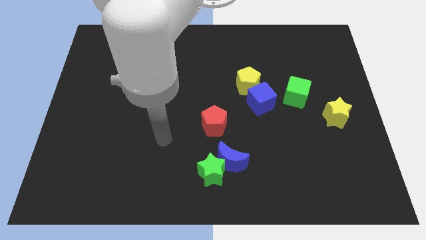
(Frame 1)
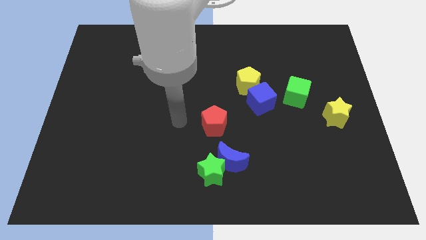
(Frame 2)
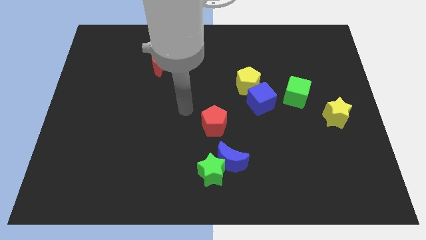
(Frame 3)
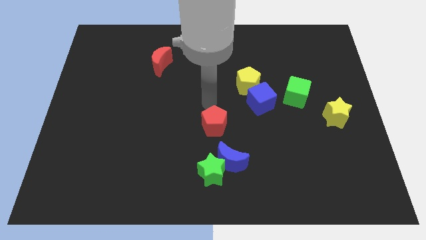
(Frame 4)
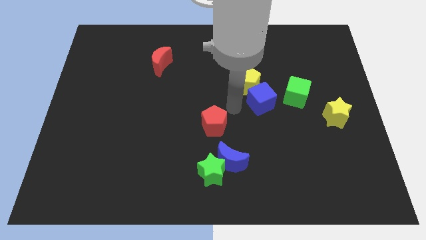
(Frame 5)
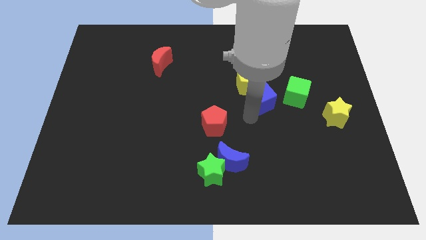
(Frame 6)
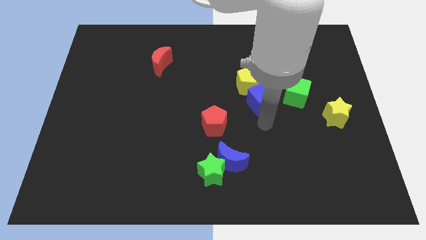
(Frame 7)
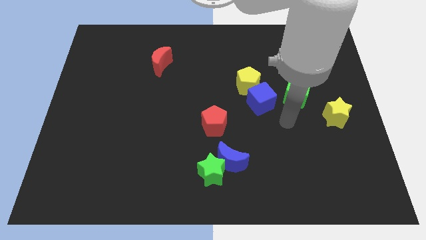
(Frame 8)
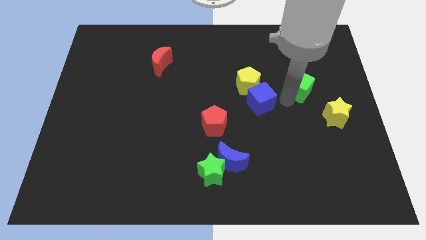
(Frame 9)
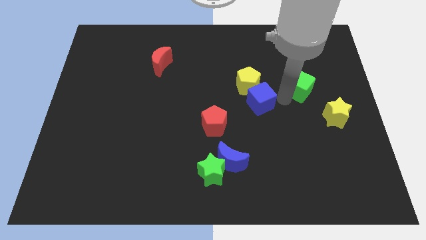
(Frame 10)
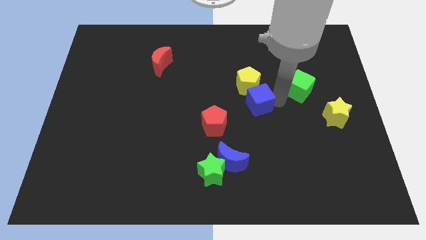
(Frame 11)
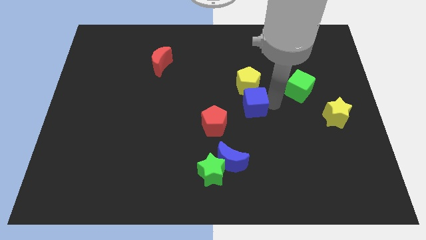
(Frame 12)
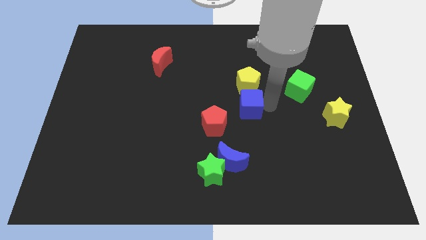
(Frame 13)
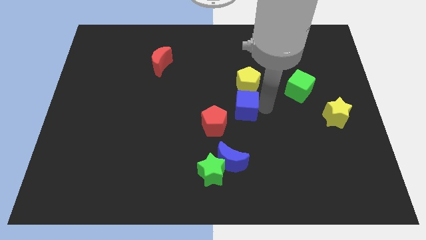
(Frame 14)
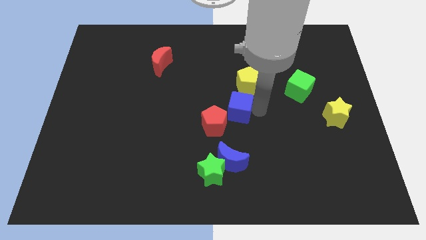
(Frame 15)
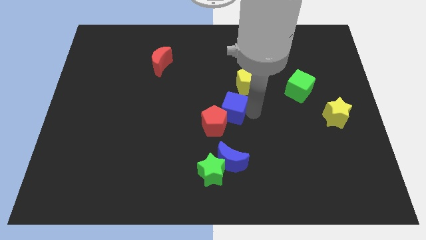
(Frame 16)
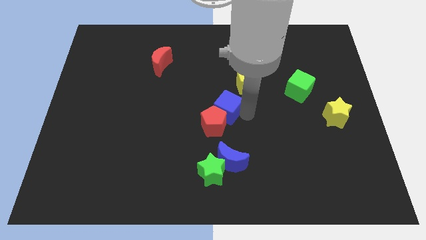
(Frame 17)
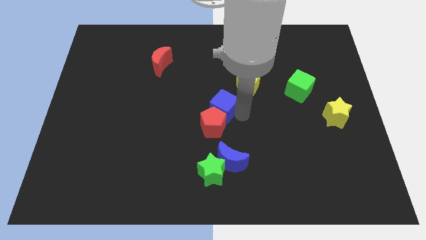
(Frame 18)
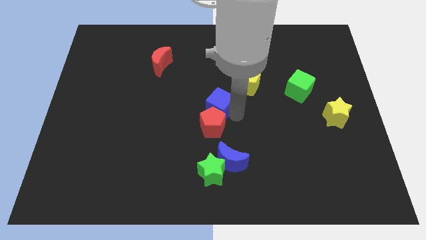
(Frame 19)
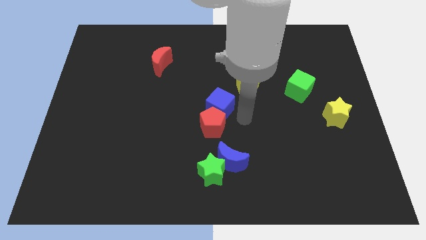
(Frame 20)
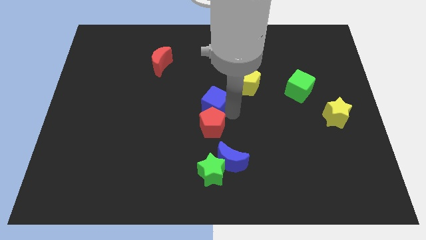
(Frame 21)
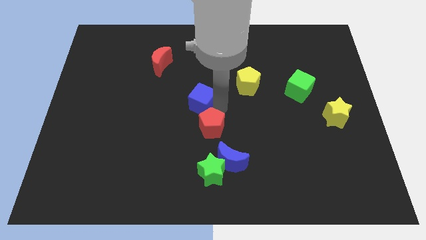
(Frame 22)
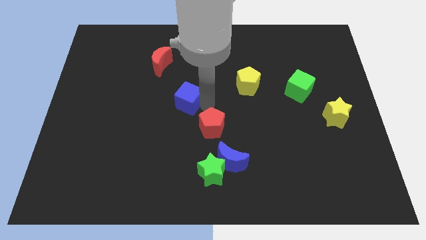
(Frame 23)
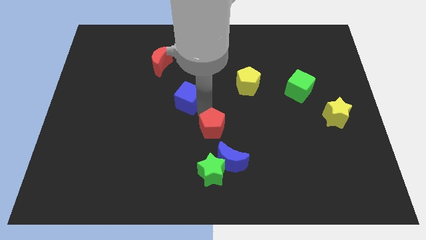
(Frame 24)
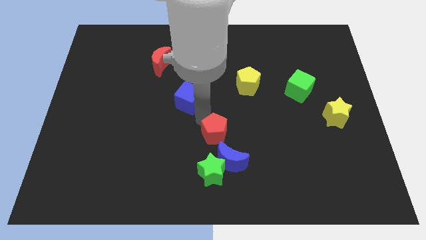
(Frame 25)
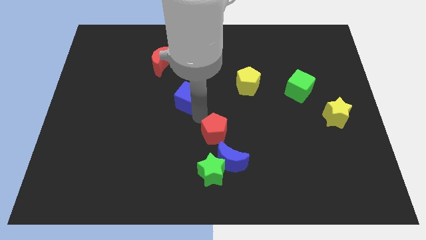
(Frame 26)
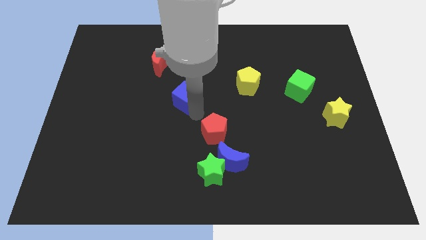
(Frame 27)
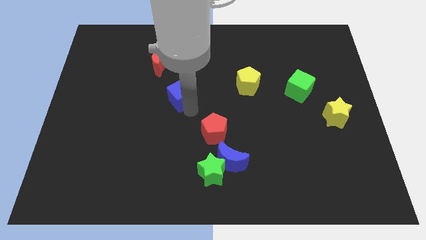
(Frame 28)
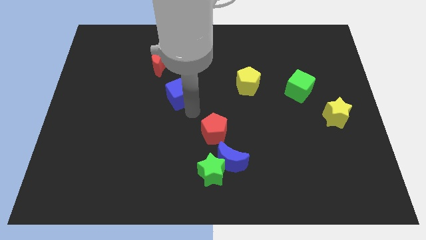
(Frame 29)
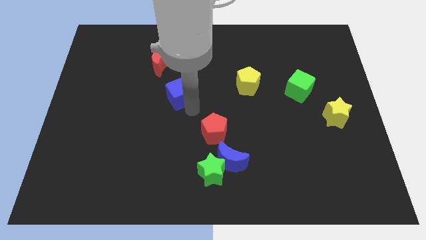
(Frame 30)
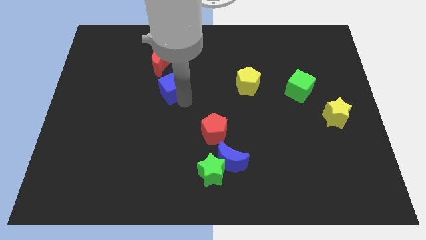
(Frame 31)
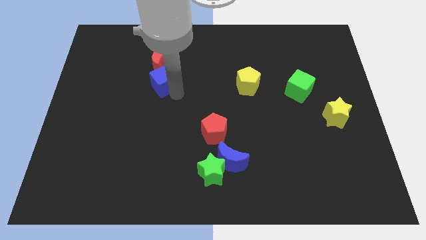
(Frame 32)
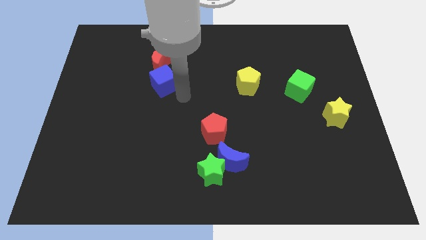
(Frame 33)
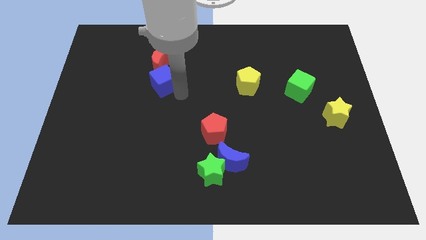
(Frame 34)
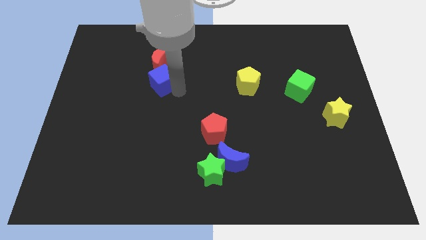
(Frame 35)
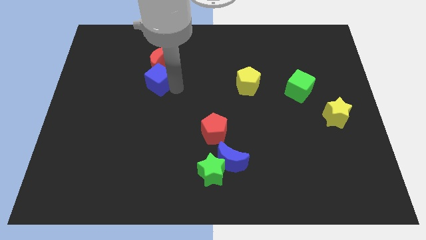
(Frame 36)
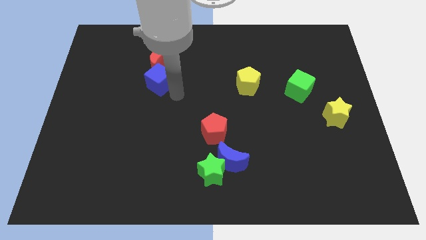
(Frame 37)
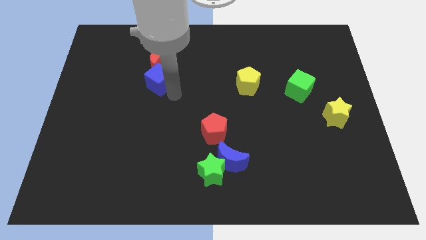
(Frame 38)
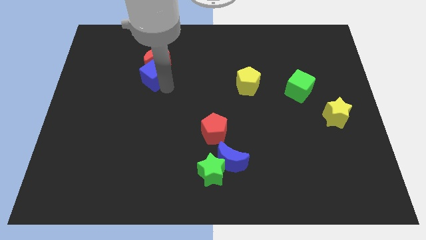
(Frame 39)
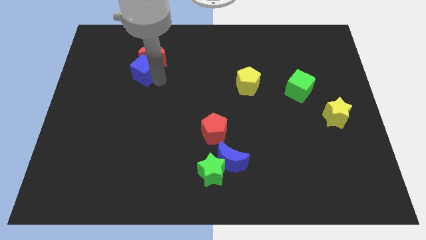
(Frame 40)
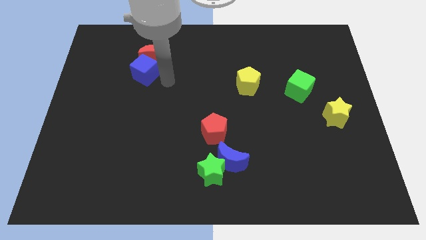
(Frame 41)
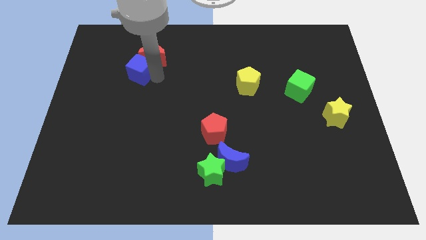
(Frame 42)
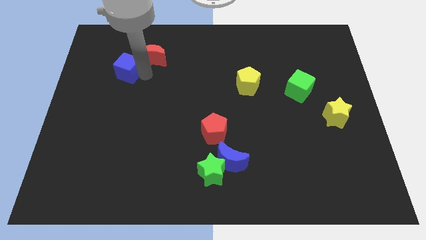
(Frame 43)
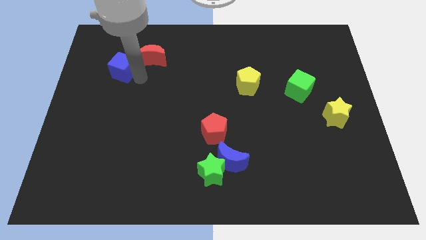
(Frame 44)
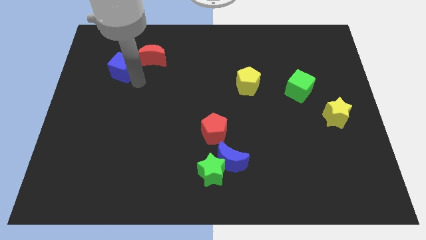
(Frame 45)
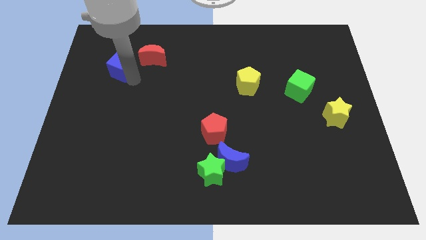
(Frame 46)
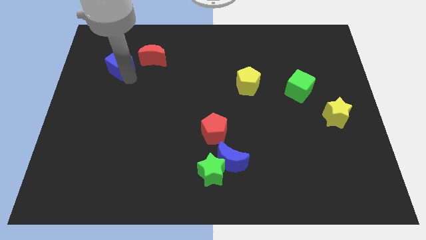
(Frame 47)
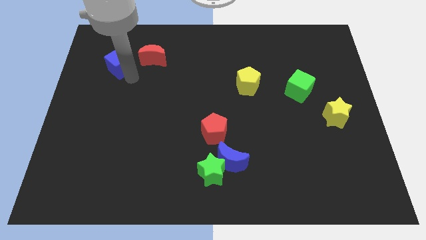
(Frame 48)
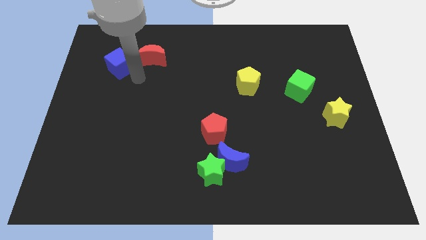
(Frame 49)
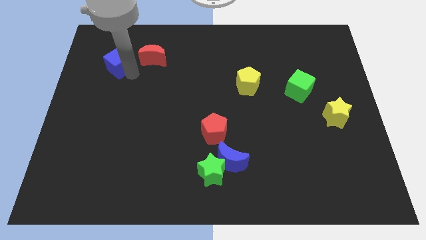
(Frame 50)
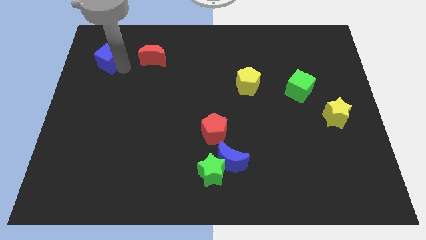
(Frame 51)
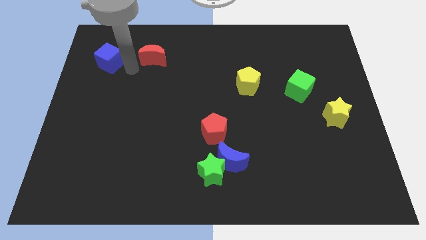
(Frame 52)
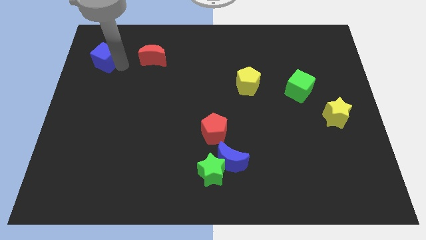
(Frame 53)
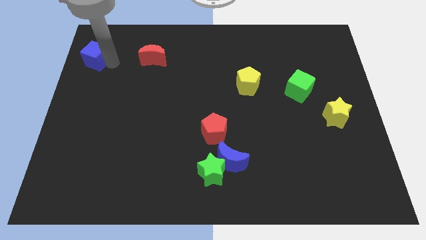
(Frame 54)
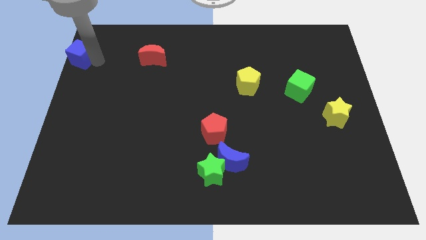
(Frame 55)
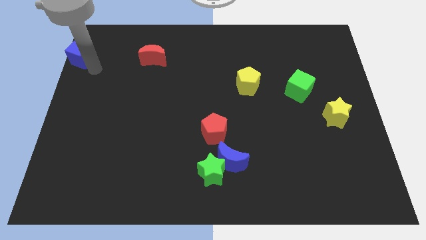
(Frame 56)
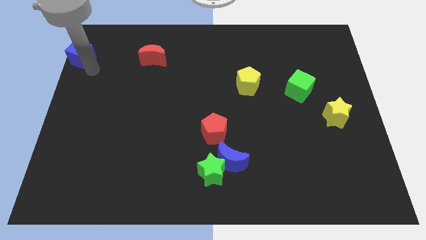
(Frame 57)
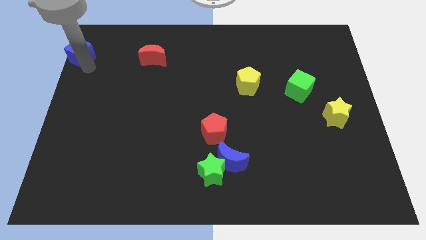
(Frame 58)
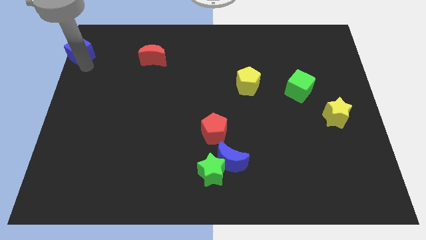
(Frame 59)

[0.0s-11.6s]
push the blue cube to the top left

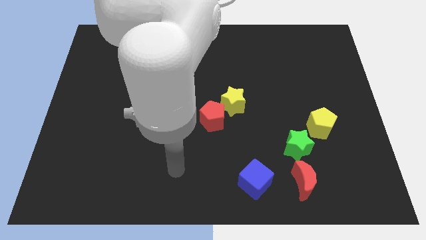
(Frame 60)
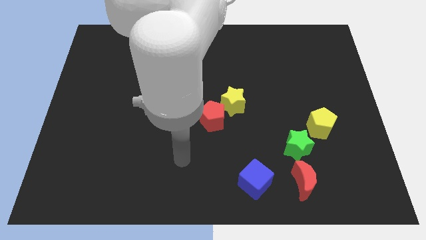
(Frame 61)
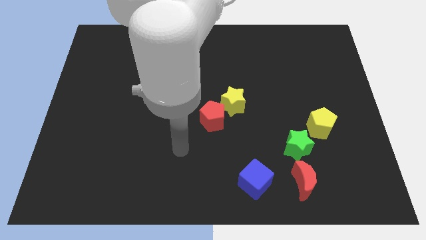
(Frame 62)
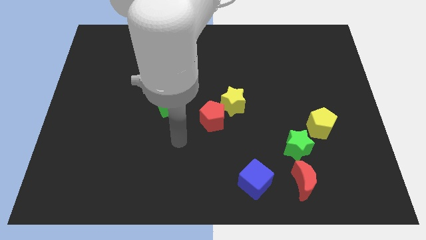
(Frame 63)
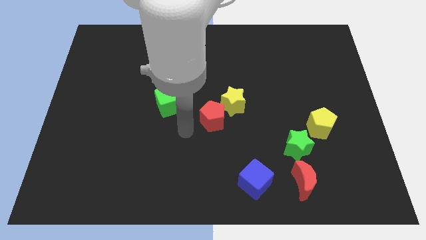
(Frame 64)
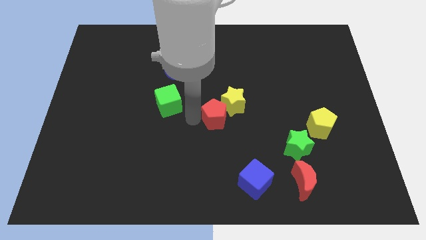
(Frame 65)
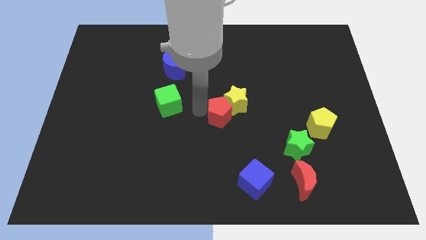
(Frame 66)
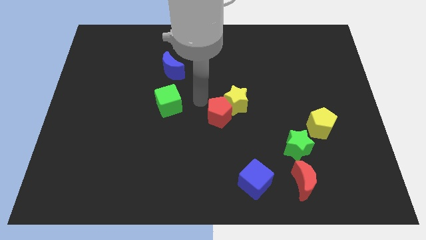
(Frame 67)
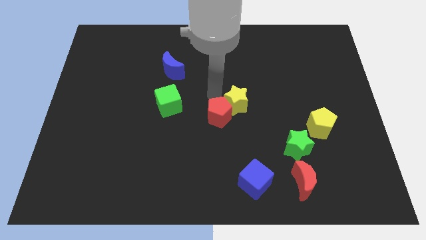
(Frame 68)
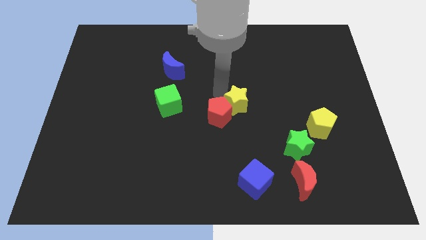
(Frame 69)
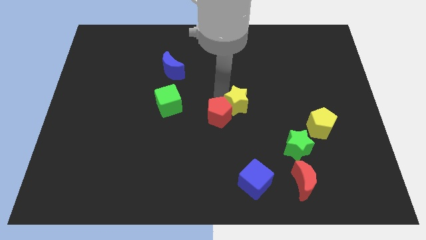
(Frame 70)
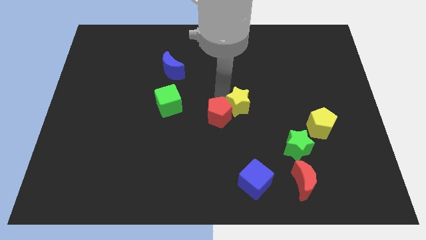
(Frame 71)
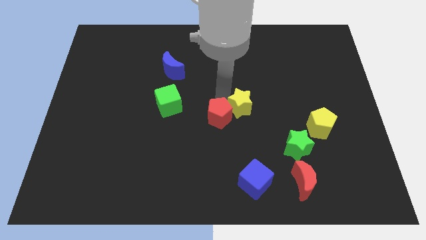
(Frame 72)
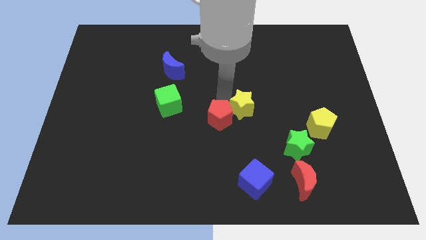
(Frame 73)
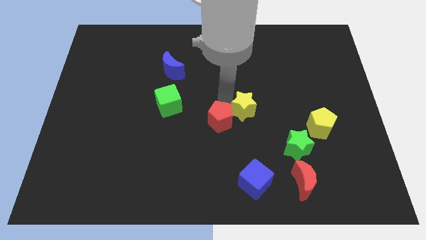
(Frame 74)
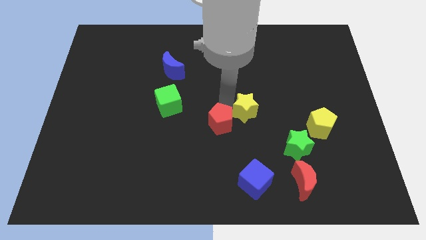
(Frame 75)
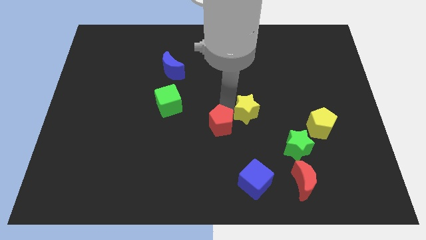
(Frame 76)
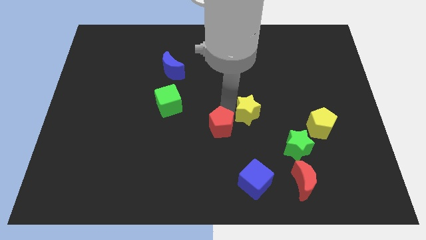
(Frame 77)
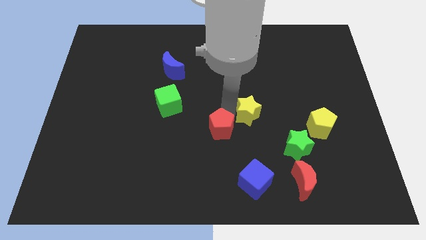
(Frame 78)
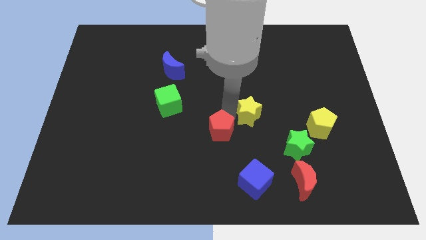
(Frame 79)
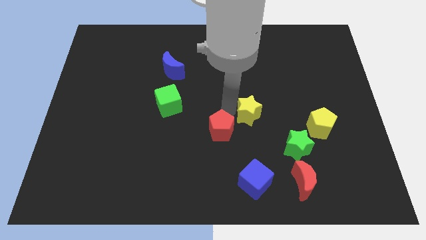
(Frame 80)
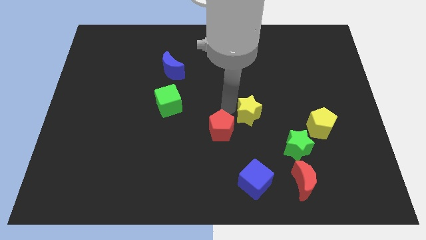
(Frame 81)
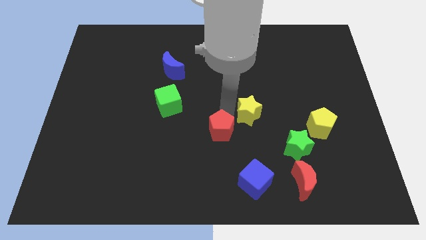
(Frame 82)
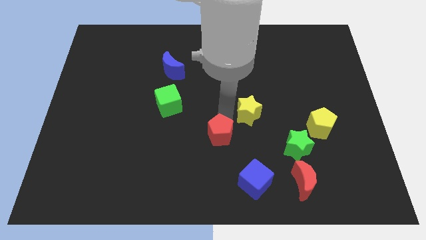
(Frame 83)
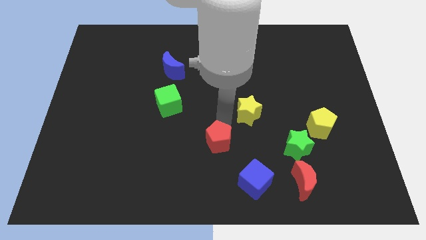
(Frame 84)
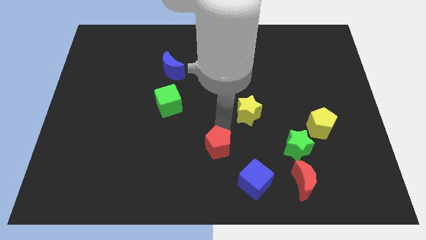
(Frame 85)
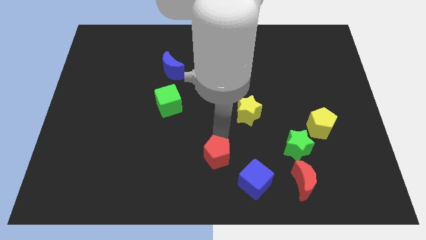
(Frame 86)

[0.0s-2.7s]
push the red pentagon to the bottom side
